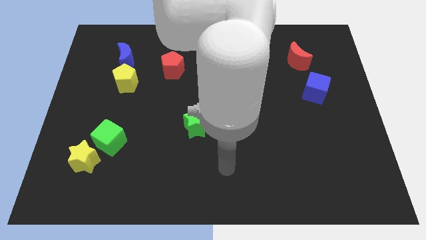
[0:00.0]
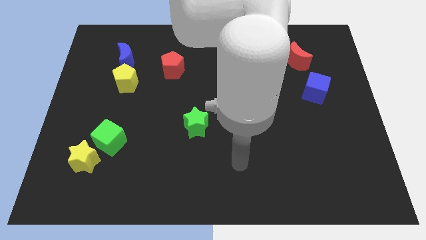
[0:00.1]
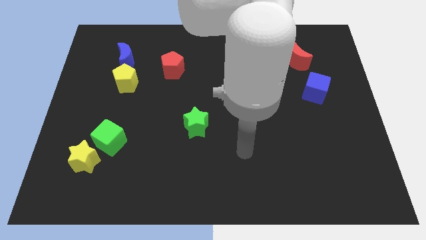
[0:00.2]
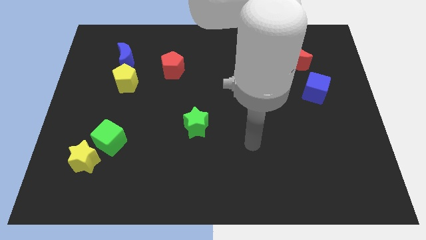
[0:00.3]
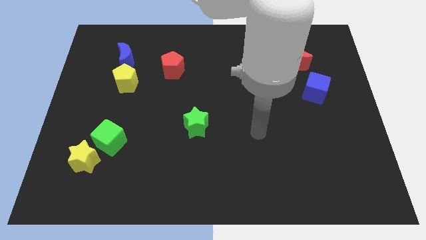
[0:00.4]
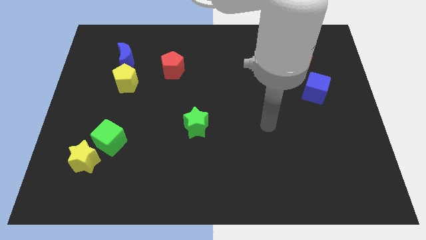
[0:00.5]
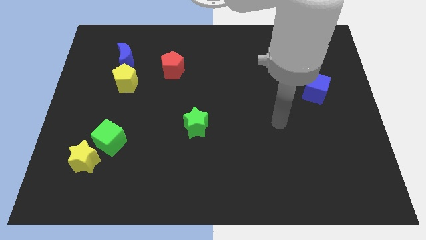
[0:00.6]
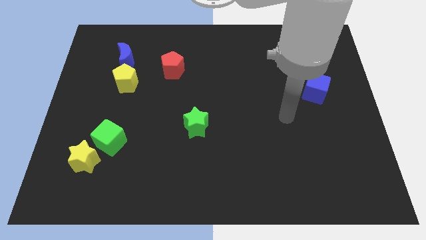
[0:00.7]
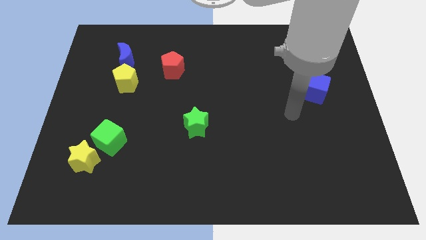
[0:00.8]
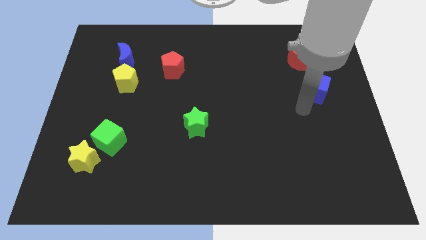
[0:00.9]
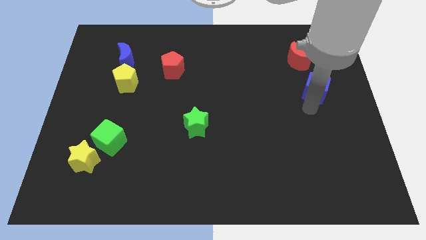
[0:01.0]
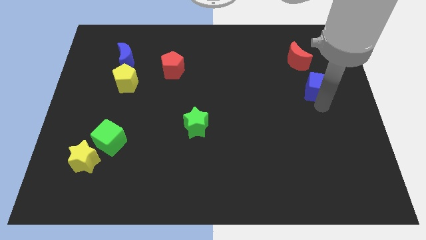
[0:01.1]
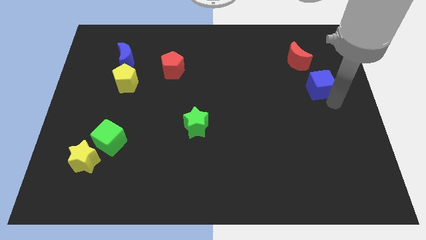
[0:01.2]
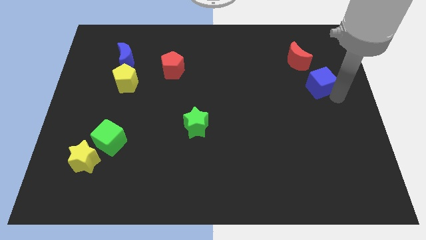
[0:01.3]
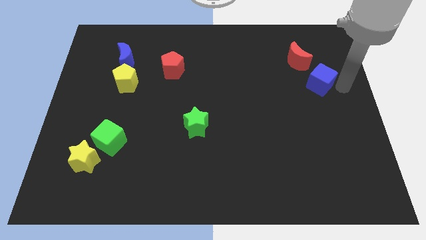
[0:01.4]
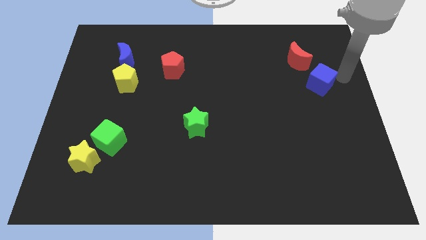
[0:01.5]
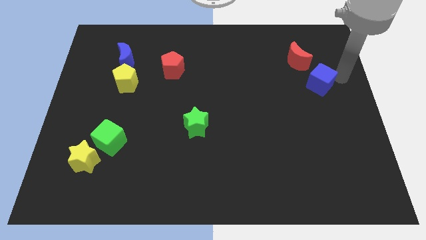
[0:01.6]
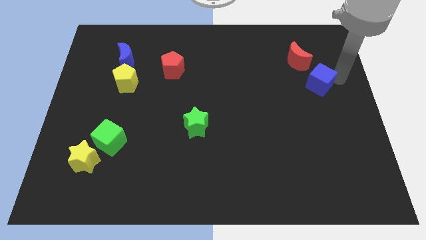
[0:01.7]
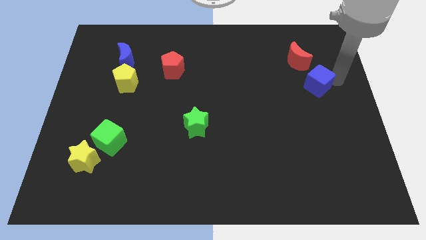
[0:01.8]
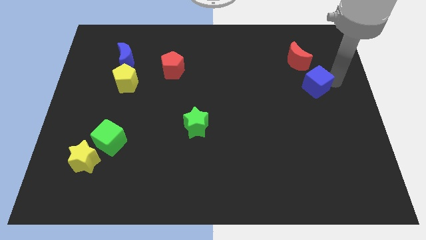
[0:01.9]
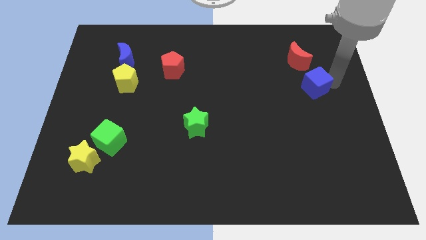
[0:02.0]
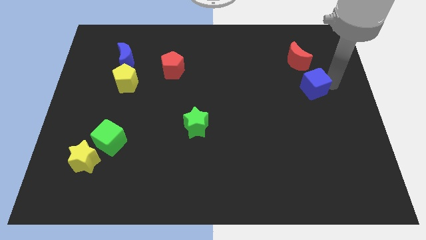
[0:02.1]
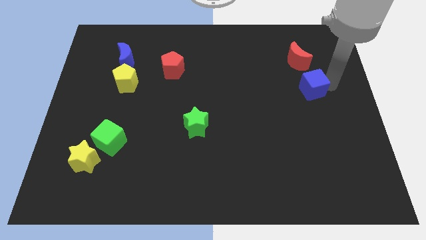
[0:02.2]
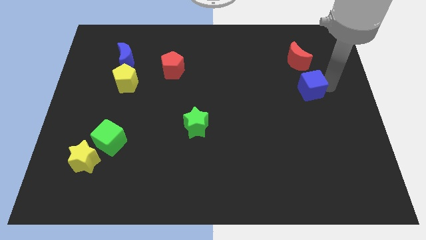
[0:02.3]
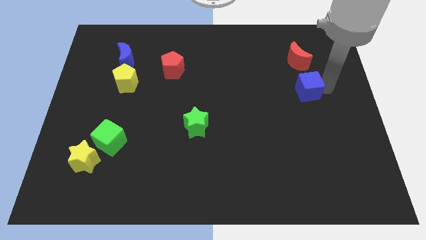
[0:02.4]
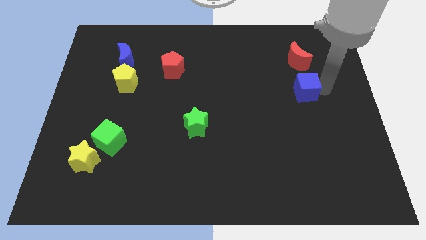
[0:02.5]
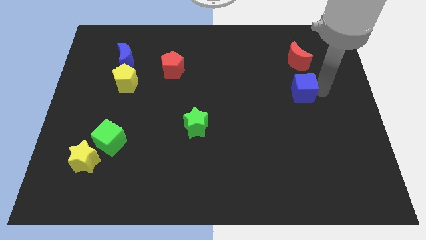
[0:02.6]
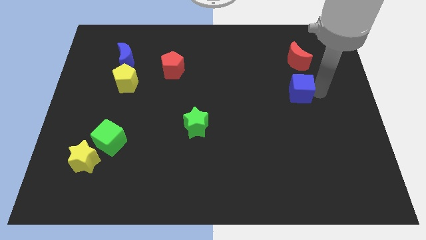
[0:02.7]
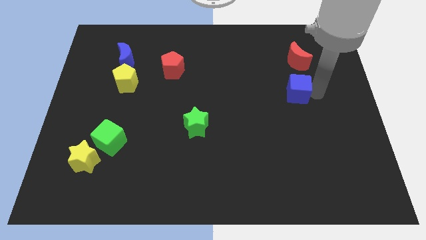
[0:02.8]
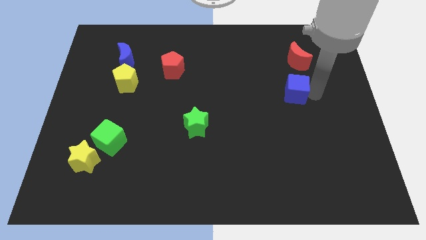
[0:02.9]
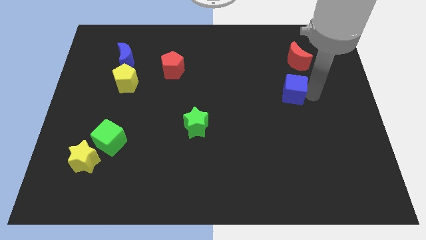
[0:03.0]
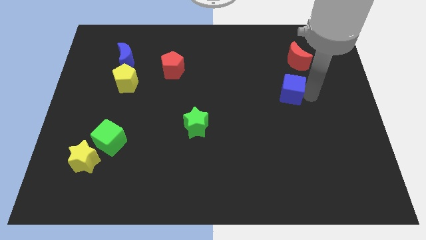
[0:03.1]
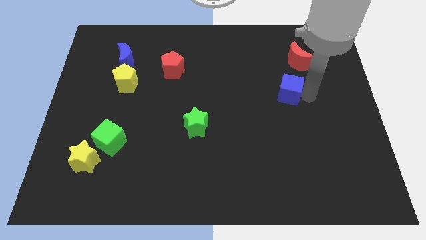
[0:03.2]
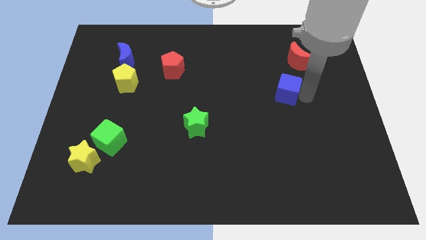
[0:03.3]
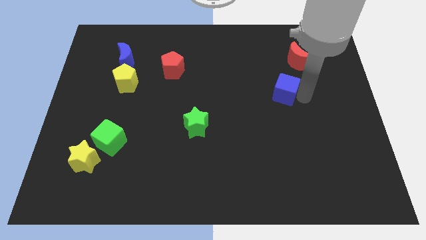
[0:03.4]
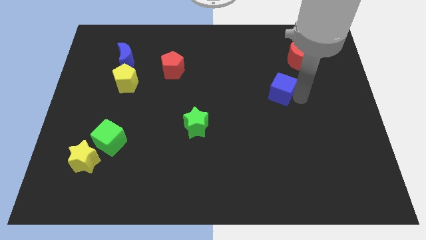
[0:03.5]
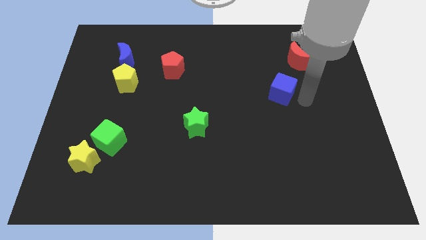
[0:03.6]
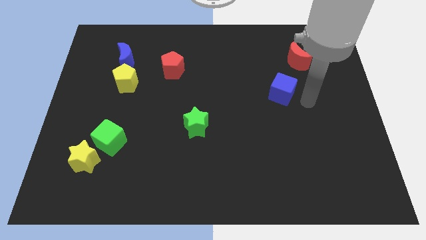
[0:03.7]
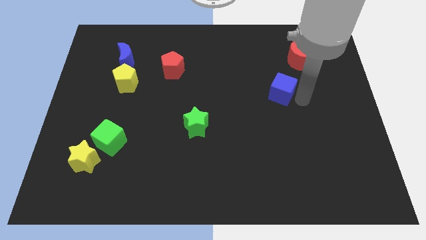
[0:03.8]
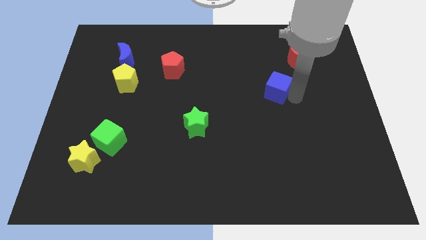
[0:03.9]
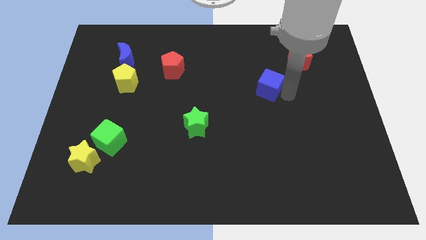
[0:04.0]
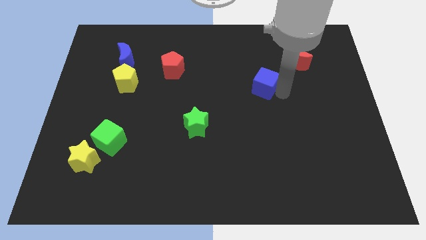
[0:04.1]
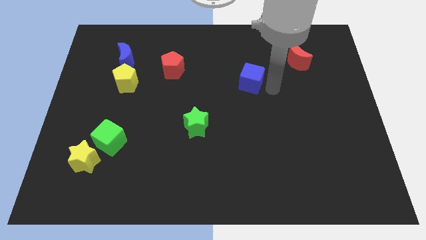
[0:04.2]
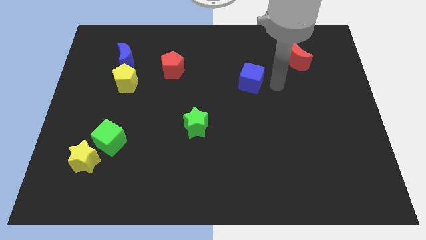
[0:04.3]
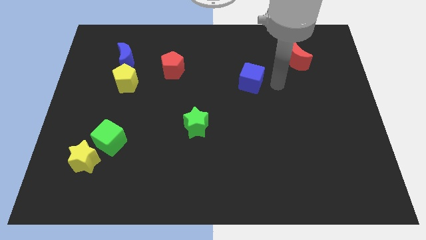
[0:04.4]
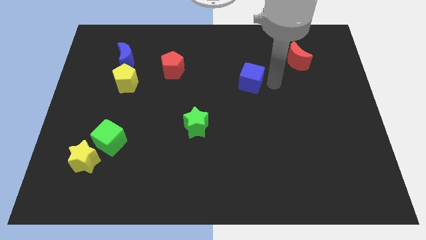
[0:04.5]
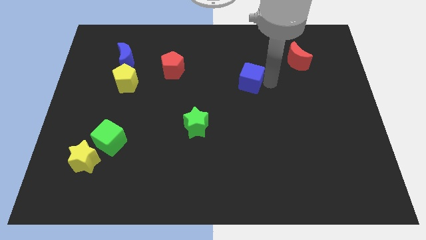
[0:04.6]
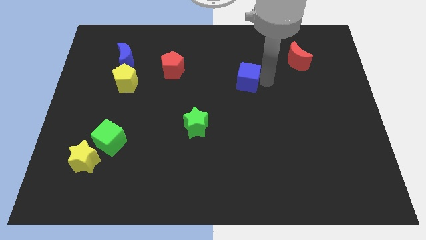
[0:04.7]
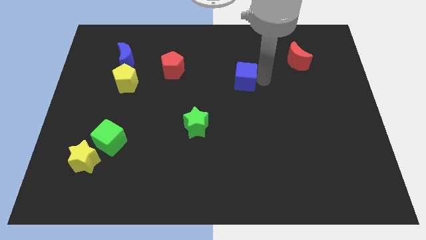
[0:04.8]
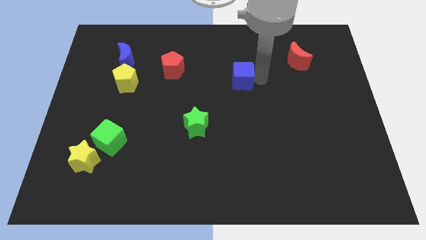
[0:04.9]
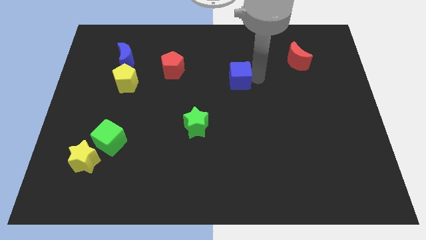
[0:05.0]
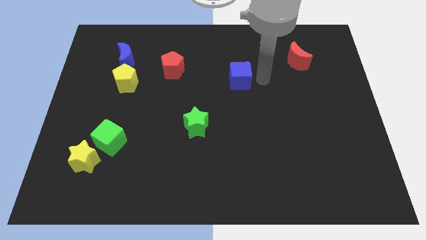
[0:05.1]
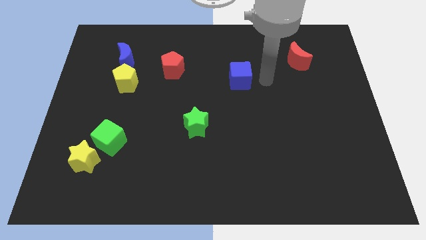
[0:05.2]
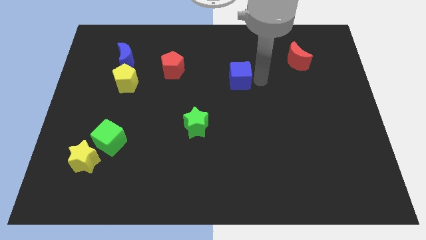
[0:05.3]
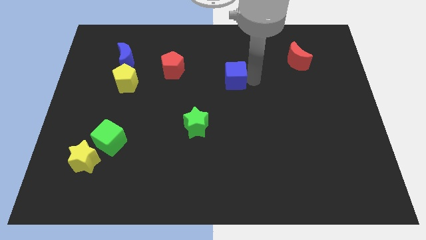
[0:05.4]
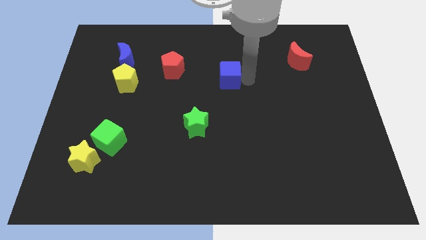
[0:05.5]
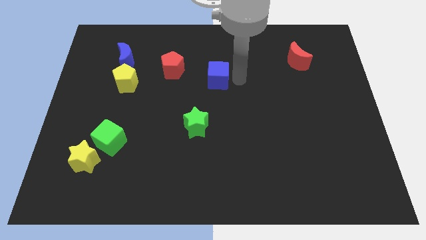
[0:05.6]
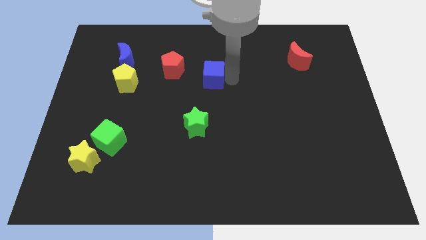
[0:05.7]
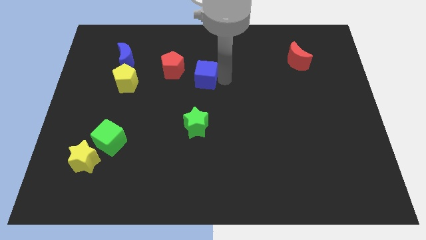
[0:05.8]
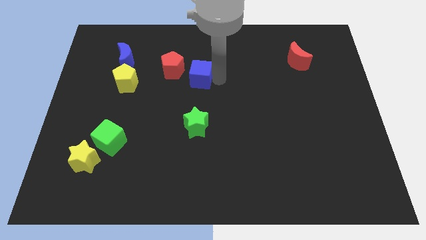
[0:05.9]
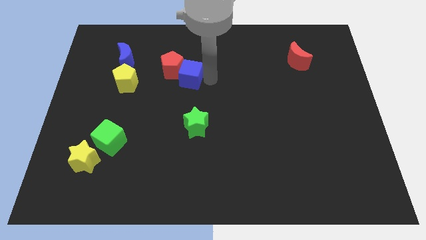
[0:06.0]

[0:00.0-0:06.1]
put the blue cube to the red pentagon

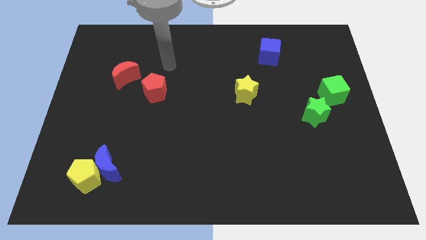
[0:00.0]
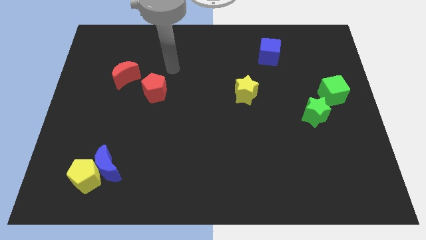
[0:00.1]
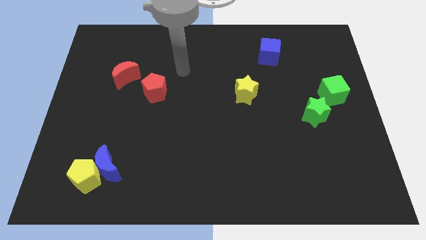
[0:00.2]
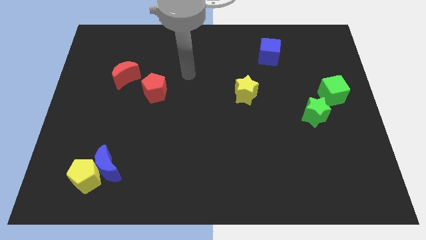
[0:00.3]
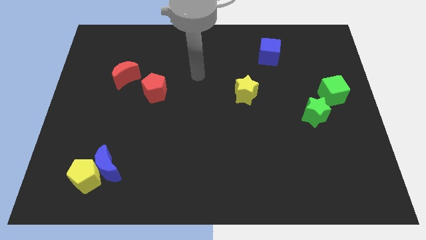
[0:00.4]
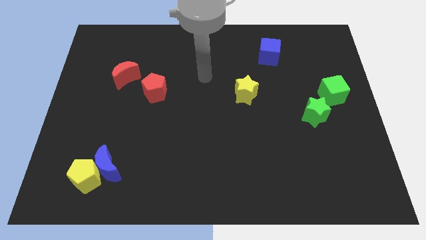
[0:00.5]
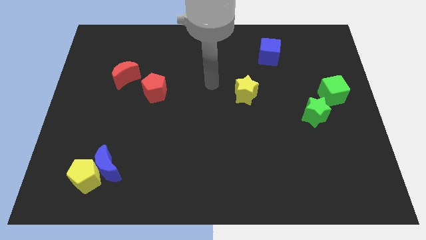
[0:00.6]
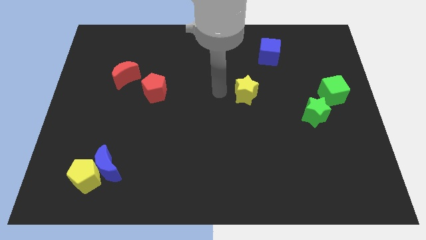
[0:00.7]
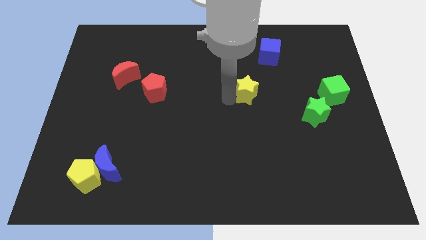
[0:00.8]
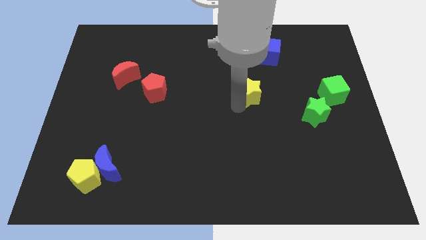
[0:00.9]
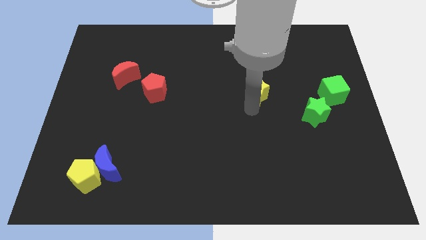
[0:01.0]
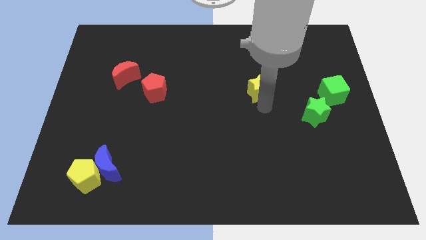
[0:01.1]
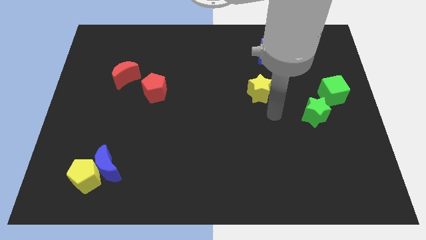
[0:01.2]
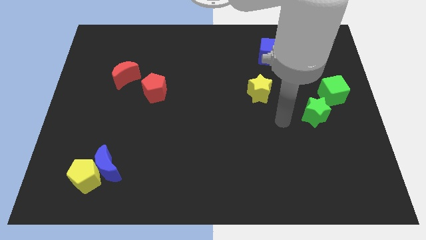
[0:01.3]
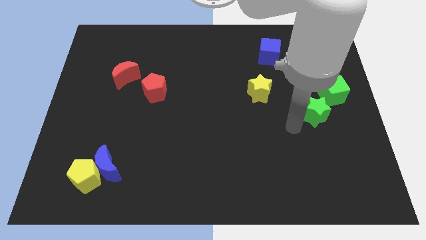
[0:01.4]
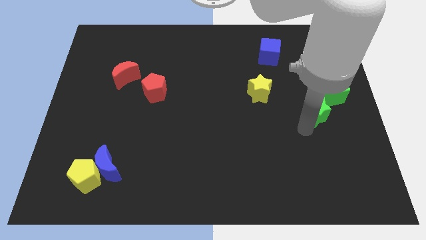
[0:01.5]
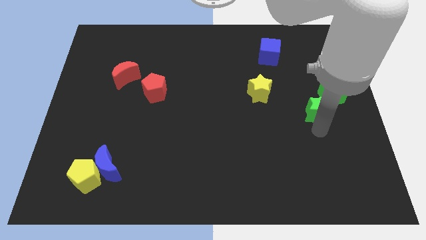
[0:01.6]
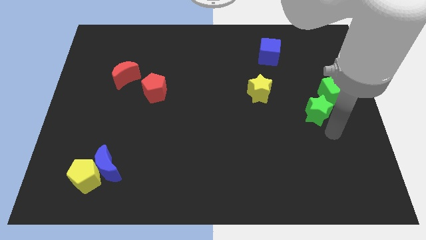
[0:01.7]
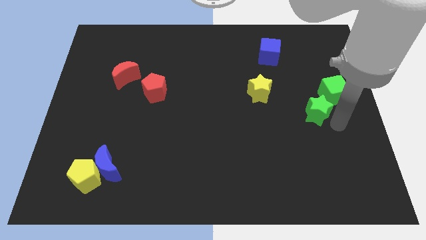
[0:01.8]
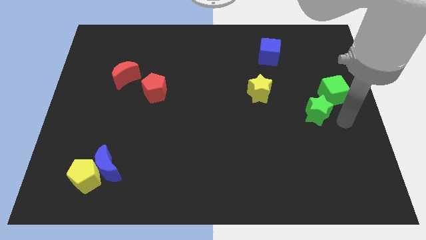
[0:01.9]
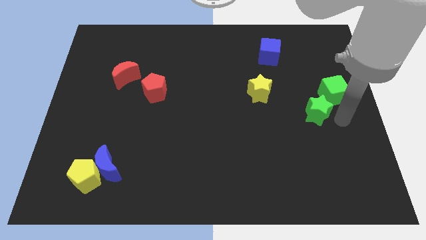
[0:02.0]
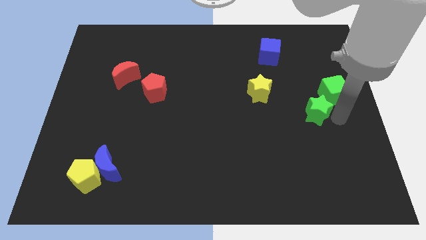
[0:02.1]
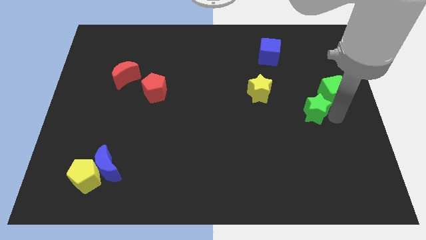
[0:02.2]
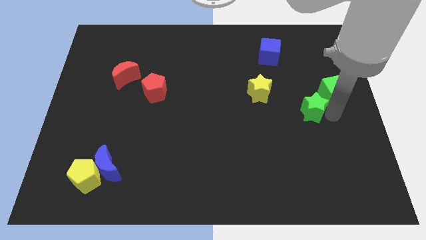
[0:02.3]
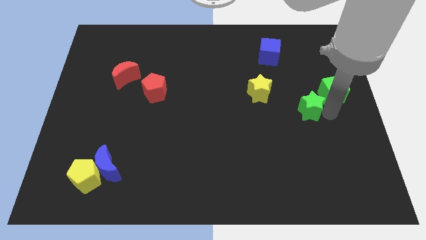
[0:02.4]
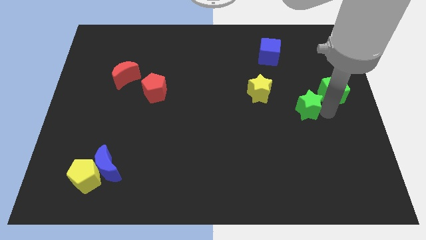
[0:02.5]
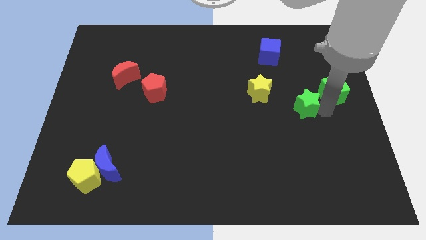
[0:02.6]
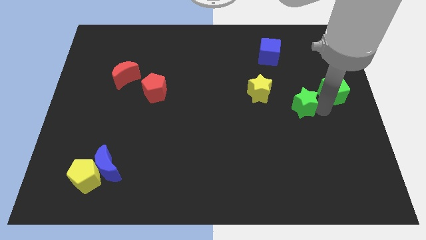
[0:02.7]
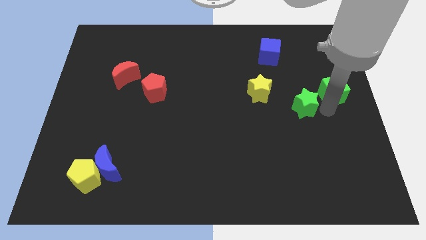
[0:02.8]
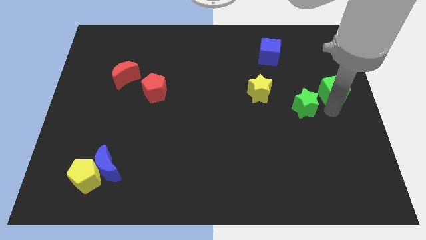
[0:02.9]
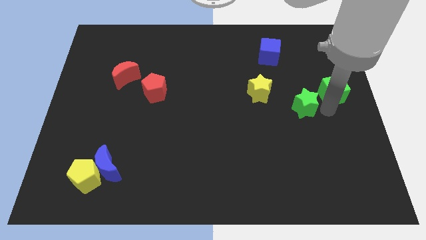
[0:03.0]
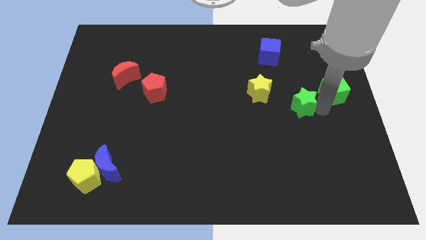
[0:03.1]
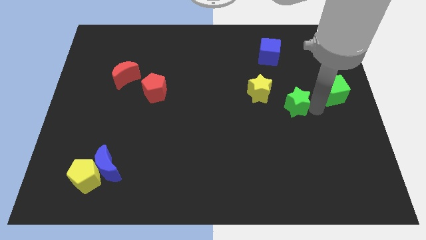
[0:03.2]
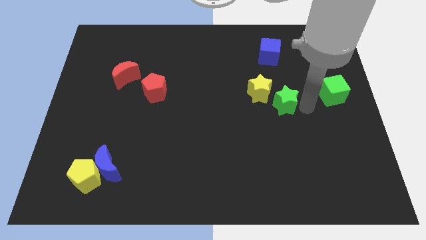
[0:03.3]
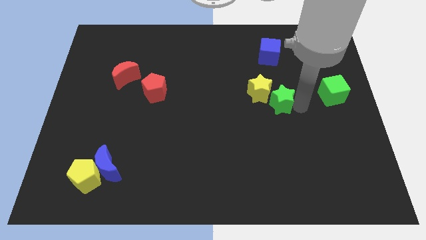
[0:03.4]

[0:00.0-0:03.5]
move the green star next to the yellow star
